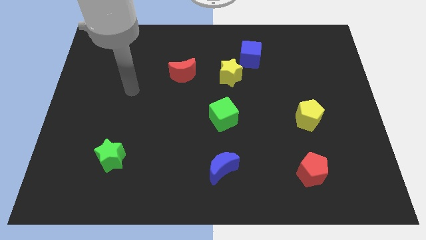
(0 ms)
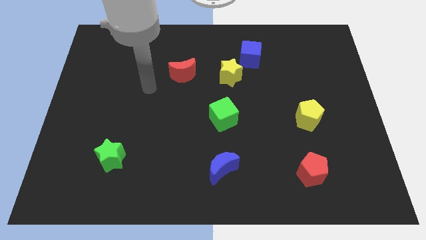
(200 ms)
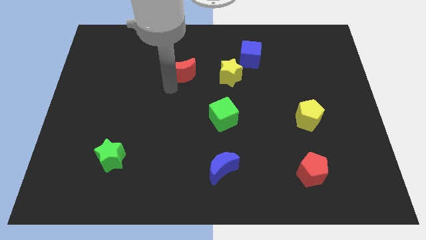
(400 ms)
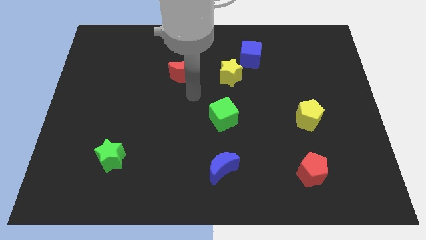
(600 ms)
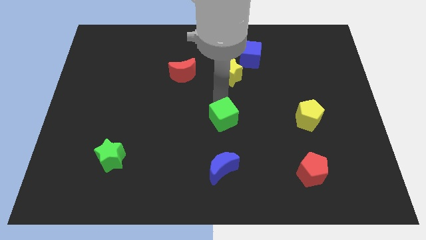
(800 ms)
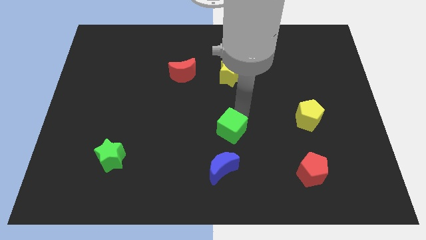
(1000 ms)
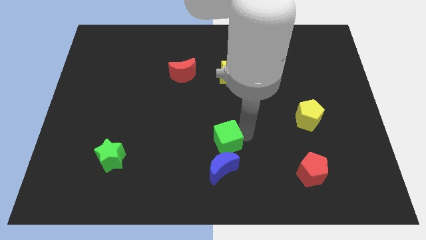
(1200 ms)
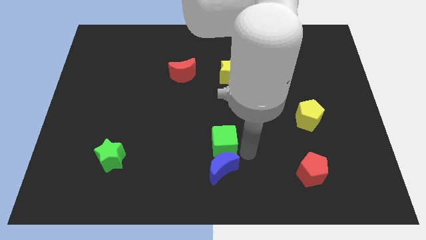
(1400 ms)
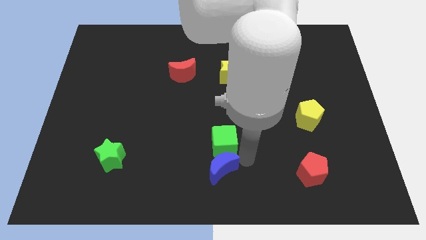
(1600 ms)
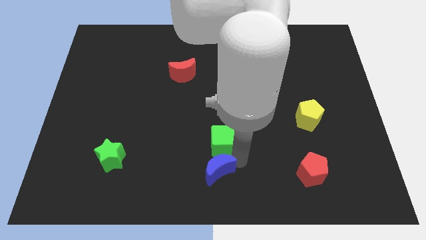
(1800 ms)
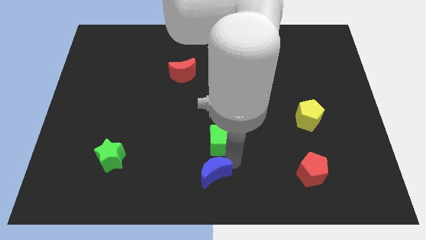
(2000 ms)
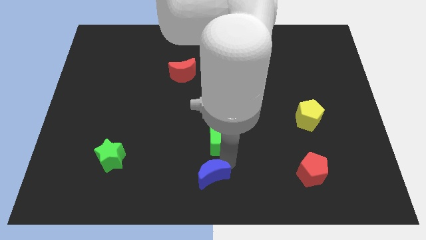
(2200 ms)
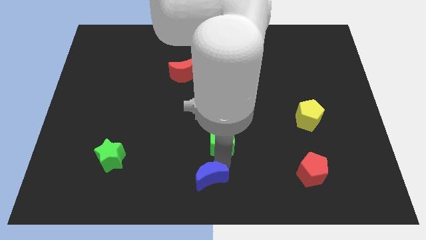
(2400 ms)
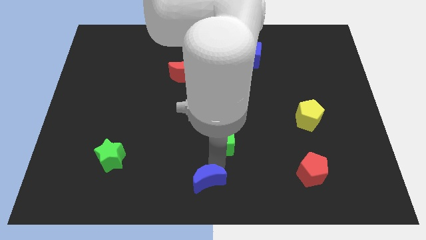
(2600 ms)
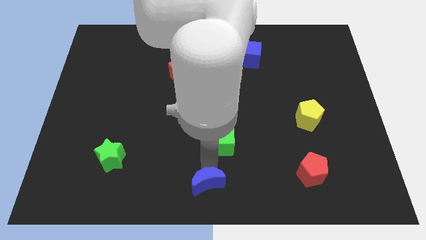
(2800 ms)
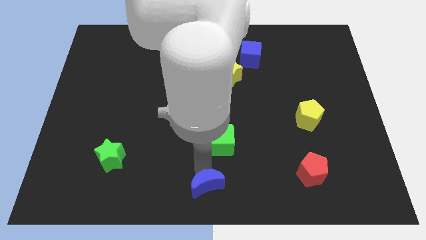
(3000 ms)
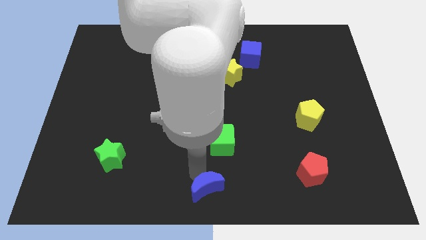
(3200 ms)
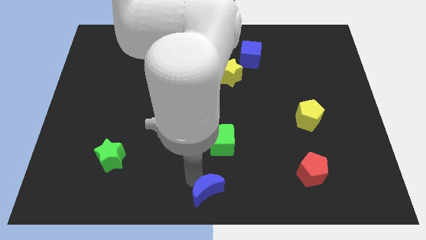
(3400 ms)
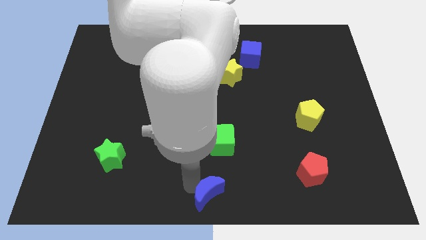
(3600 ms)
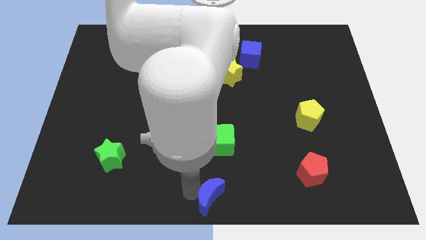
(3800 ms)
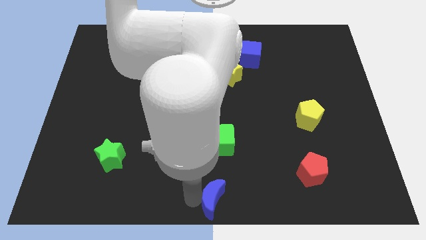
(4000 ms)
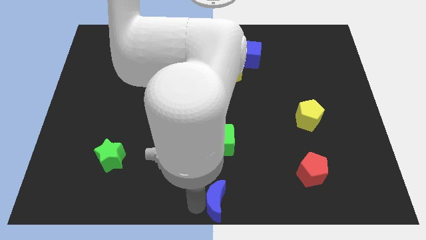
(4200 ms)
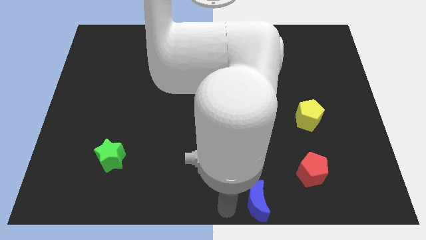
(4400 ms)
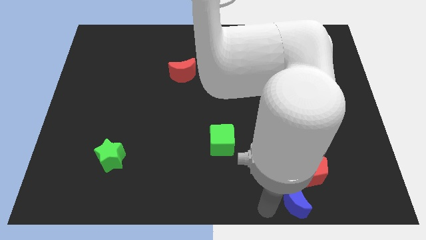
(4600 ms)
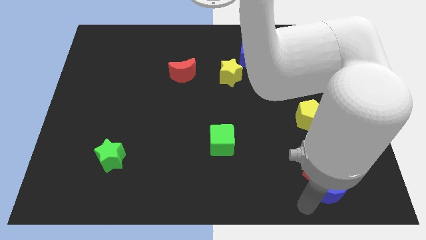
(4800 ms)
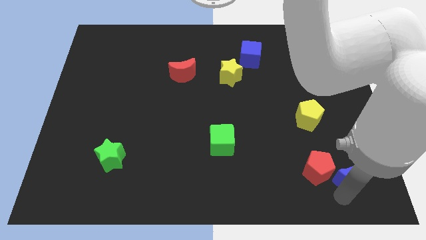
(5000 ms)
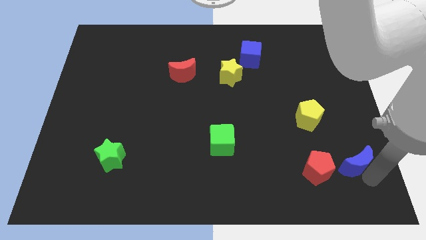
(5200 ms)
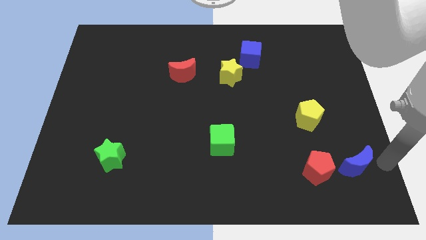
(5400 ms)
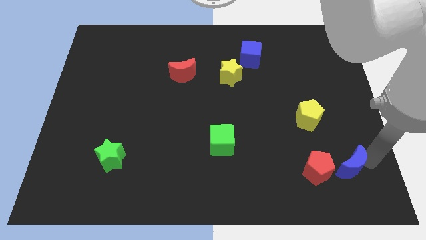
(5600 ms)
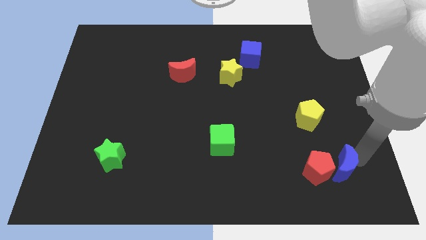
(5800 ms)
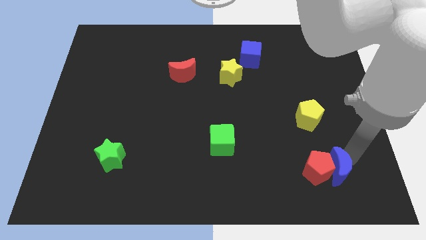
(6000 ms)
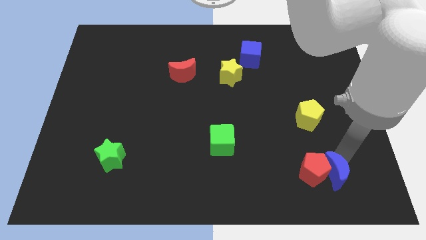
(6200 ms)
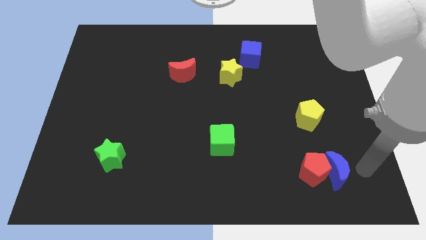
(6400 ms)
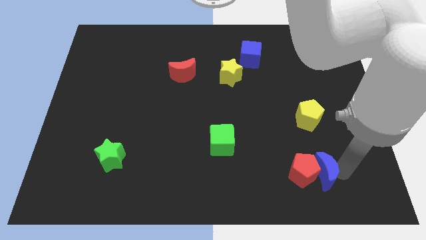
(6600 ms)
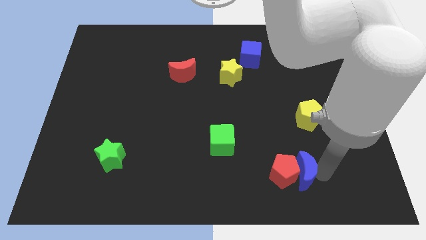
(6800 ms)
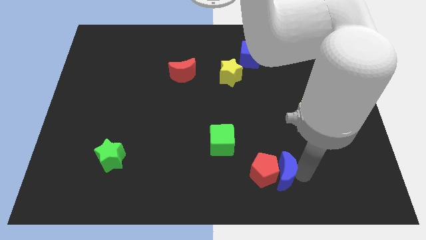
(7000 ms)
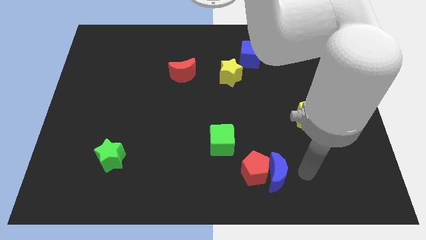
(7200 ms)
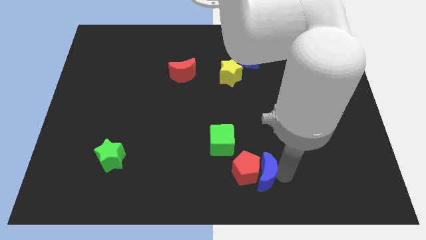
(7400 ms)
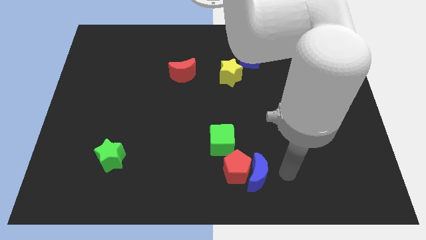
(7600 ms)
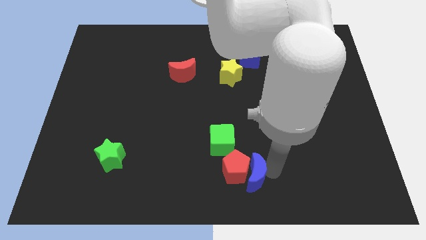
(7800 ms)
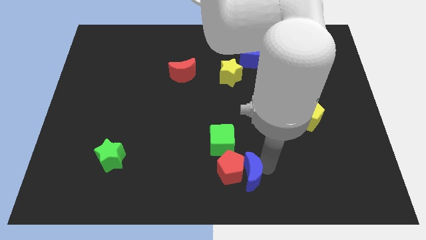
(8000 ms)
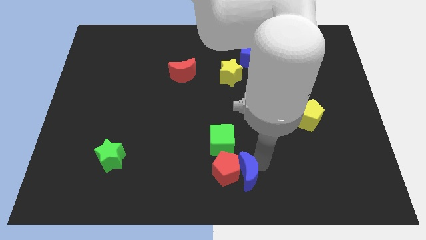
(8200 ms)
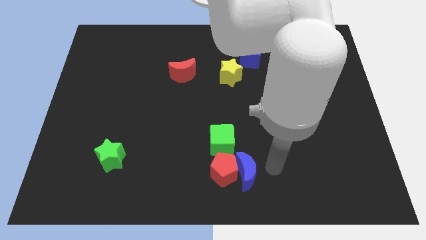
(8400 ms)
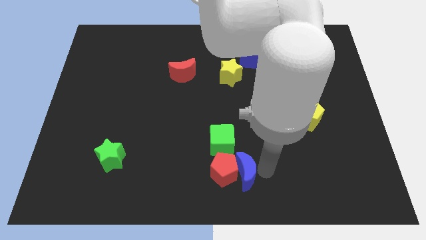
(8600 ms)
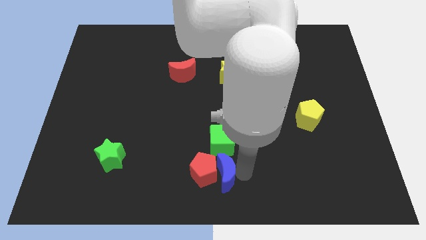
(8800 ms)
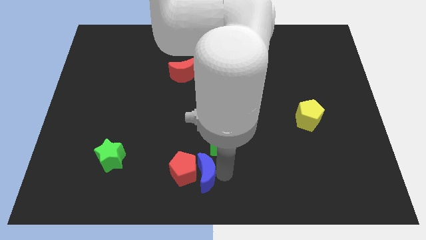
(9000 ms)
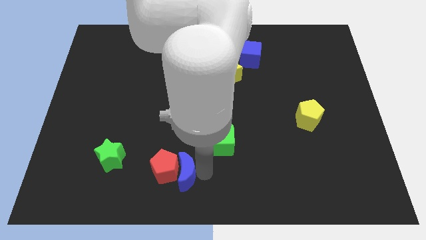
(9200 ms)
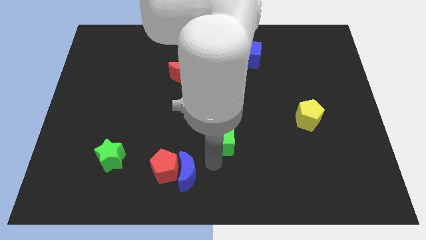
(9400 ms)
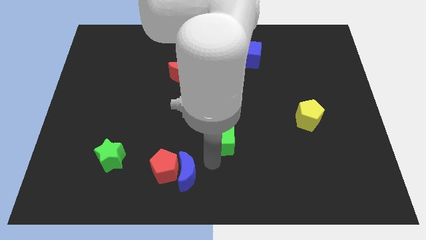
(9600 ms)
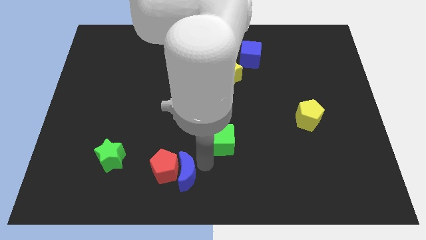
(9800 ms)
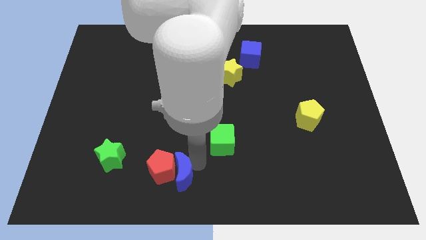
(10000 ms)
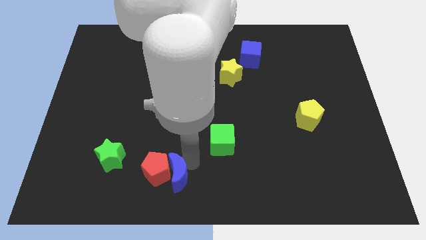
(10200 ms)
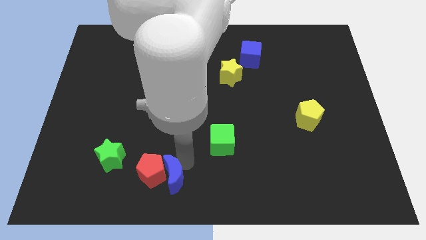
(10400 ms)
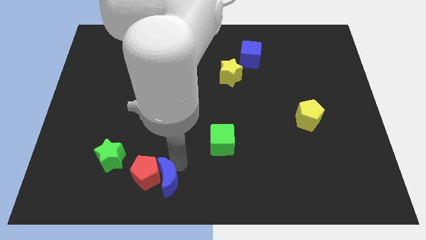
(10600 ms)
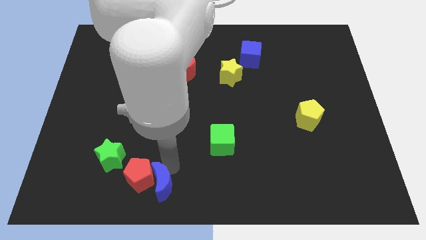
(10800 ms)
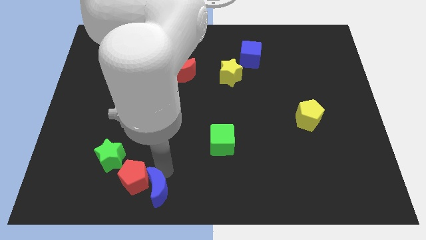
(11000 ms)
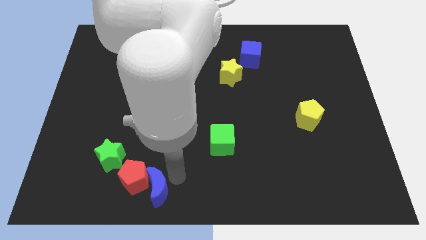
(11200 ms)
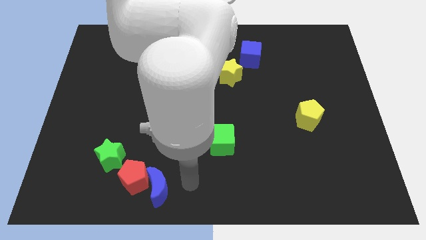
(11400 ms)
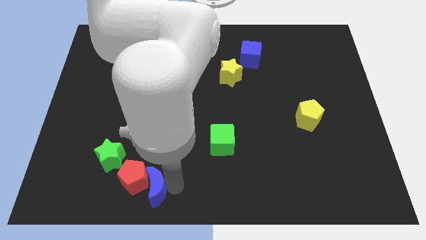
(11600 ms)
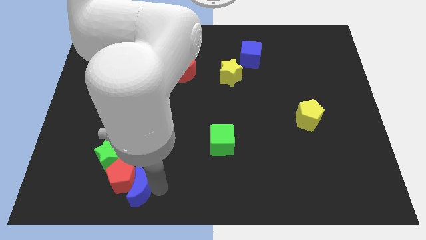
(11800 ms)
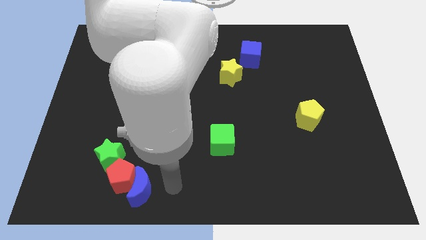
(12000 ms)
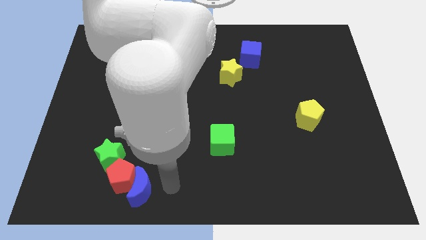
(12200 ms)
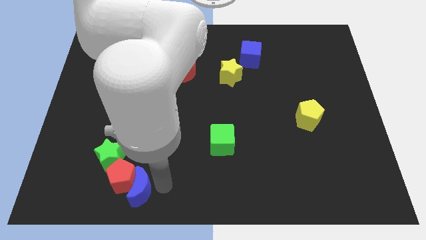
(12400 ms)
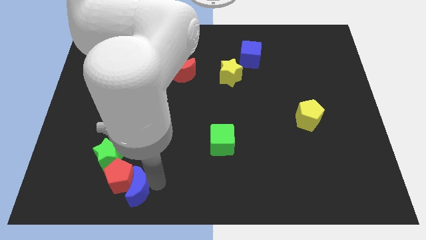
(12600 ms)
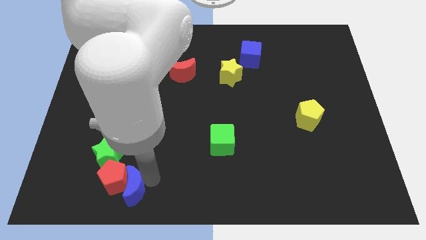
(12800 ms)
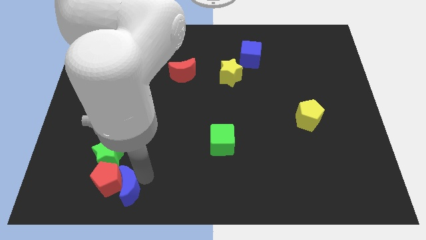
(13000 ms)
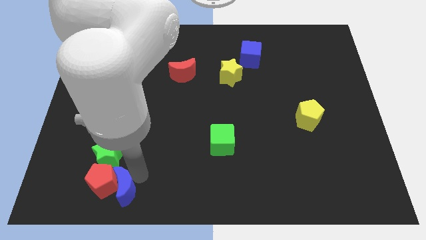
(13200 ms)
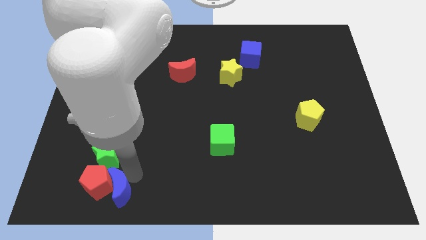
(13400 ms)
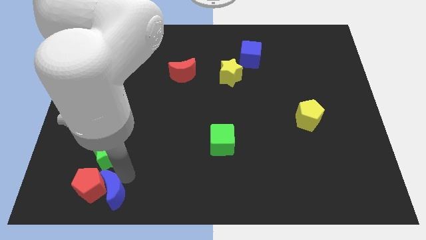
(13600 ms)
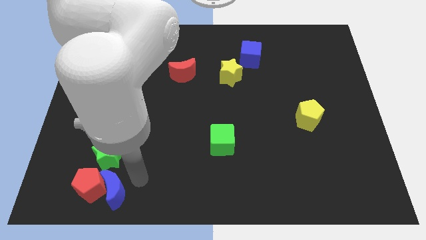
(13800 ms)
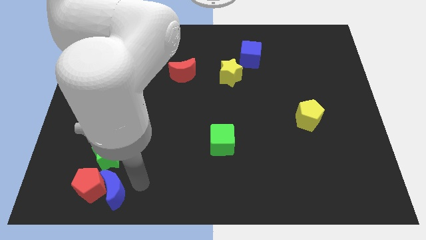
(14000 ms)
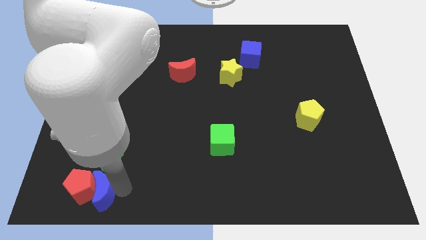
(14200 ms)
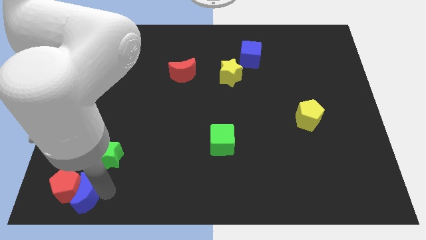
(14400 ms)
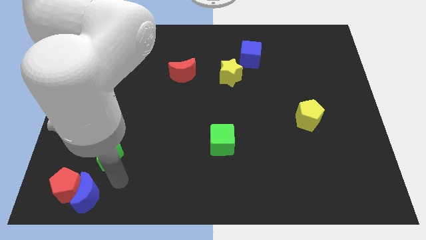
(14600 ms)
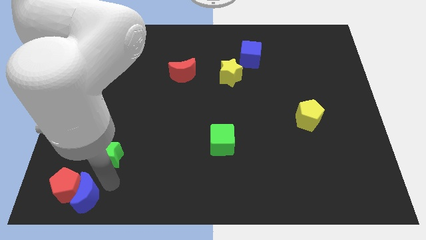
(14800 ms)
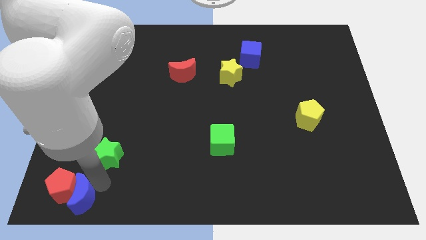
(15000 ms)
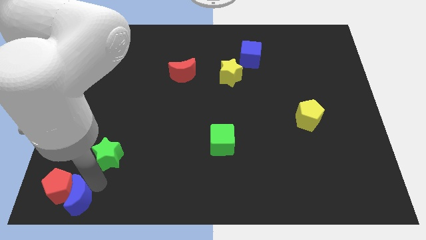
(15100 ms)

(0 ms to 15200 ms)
push the blue moon to the bottom left
